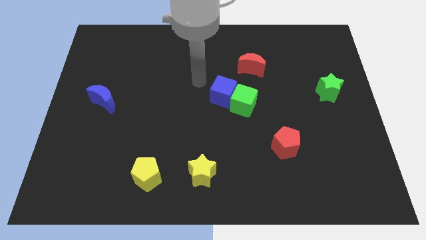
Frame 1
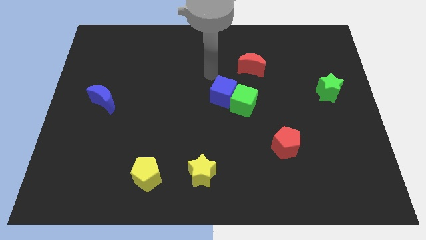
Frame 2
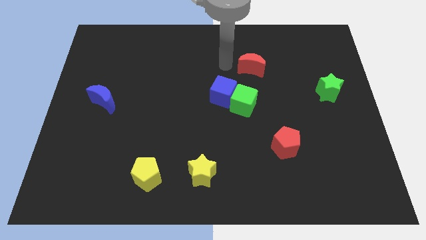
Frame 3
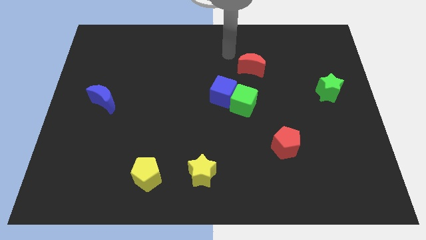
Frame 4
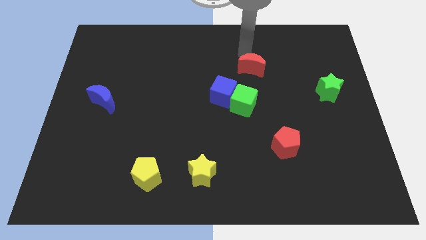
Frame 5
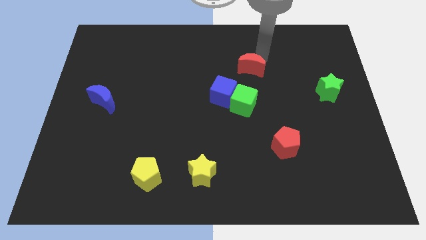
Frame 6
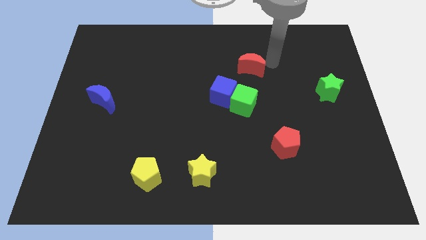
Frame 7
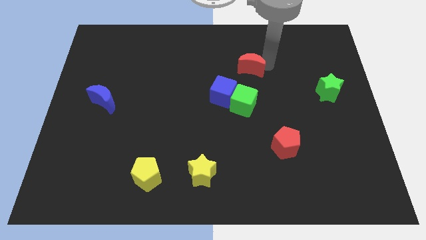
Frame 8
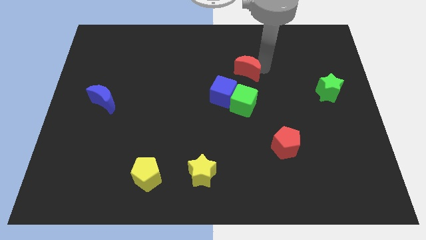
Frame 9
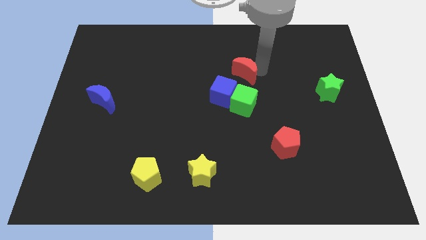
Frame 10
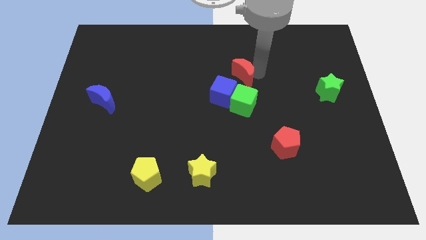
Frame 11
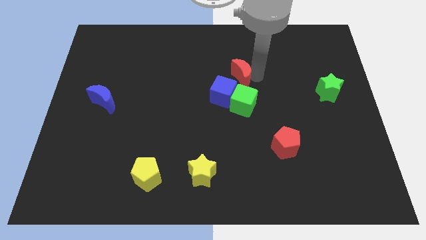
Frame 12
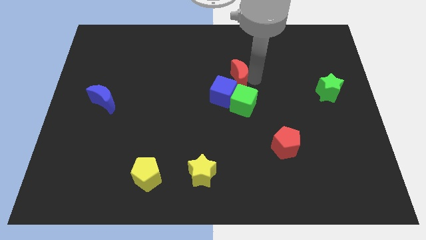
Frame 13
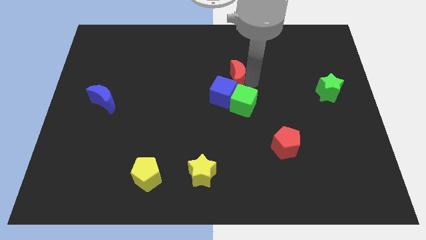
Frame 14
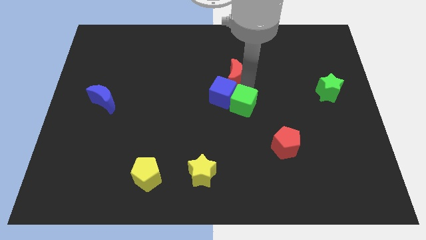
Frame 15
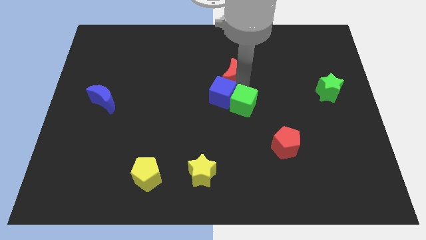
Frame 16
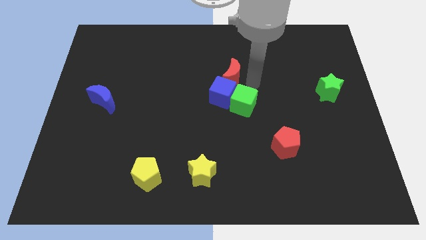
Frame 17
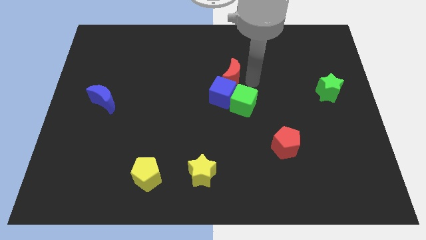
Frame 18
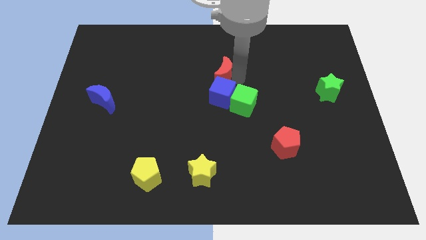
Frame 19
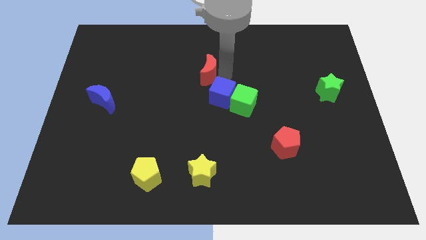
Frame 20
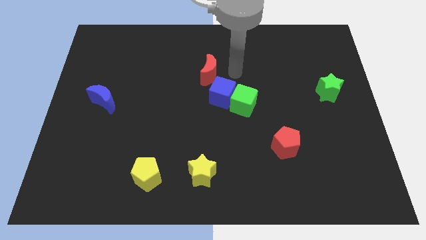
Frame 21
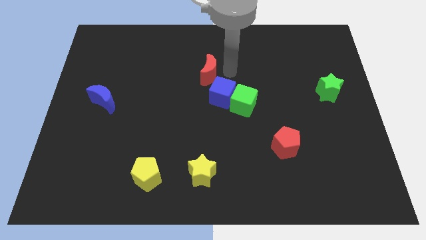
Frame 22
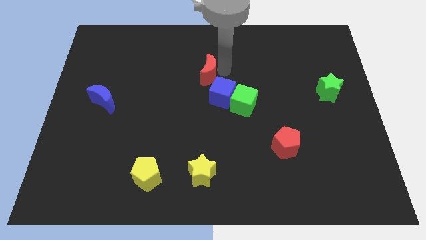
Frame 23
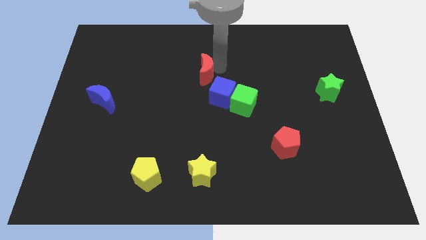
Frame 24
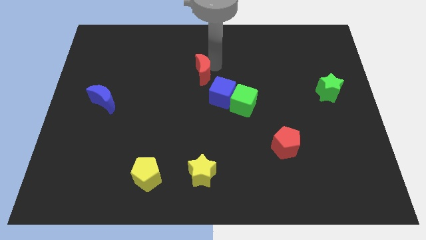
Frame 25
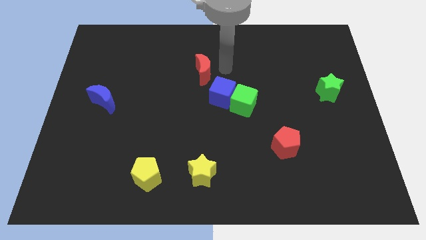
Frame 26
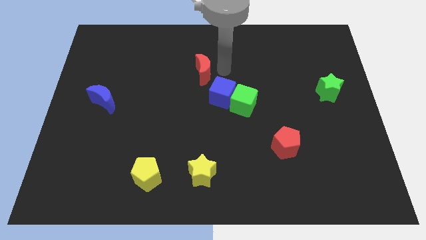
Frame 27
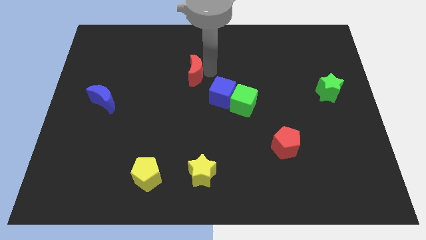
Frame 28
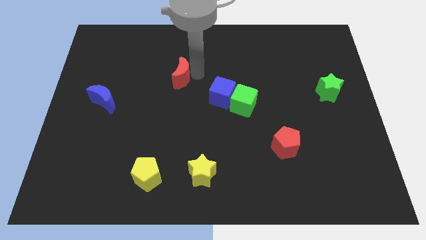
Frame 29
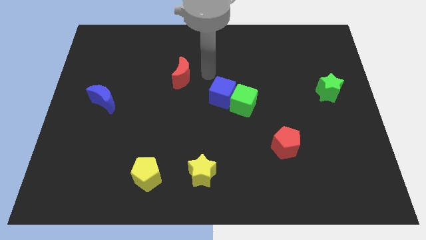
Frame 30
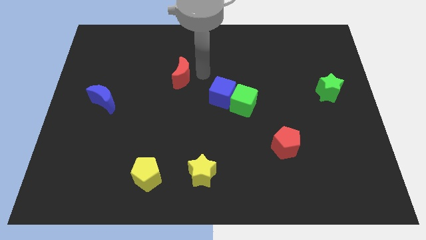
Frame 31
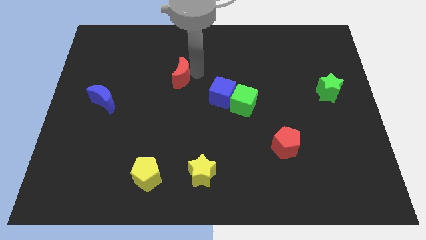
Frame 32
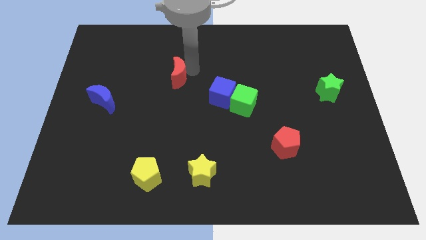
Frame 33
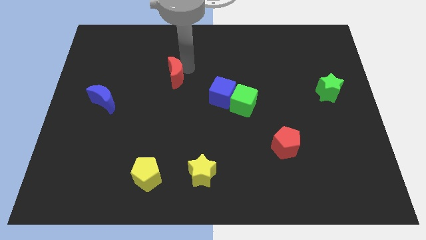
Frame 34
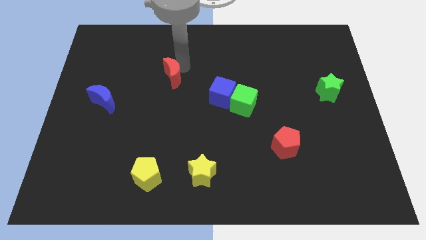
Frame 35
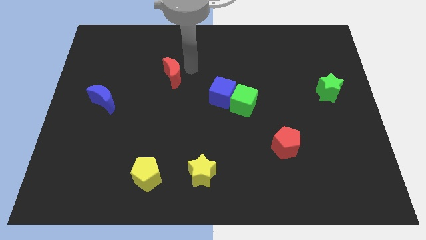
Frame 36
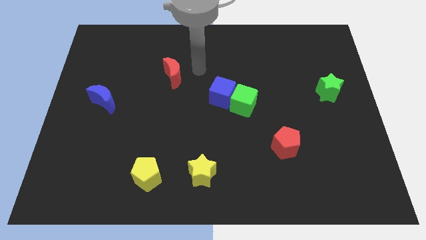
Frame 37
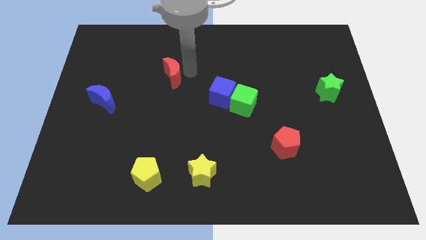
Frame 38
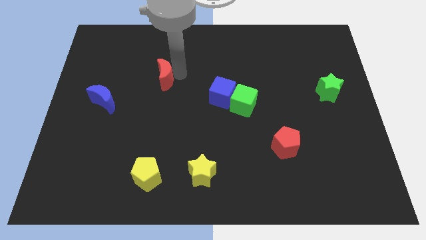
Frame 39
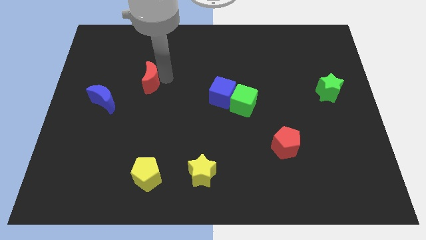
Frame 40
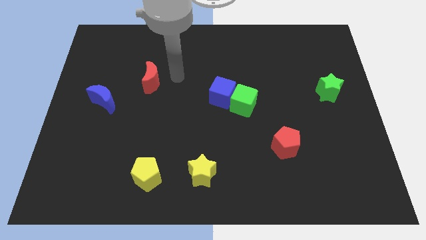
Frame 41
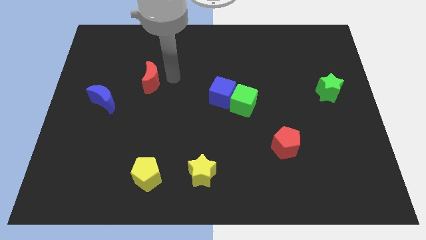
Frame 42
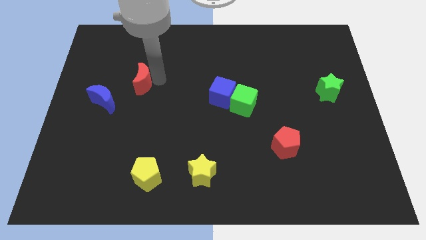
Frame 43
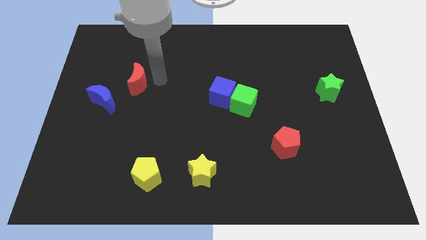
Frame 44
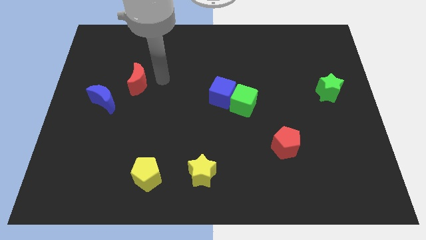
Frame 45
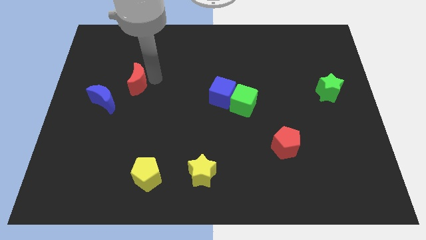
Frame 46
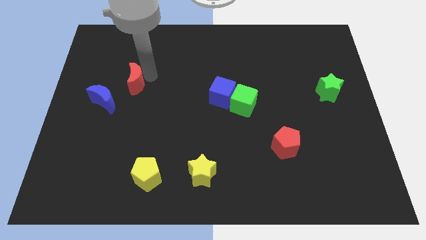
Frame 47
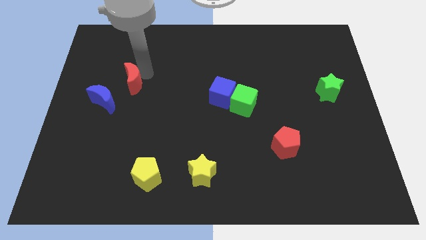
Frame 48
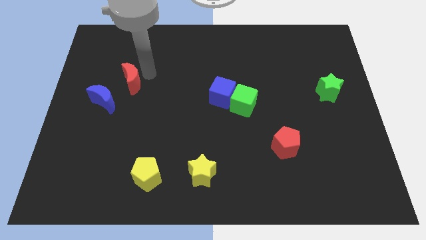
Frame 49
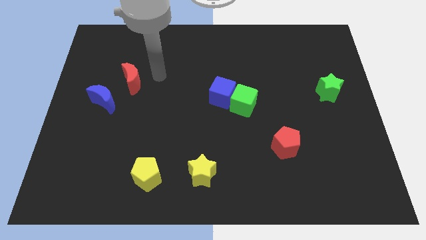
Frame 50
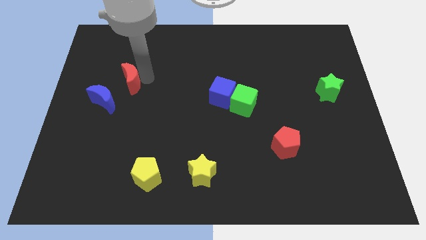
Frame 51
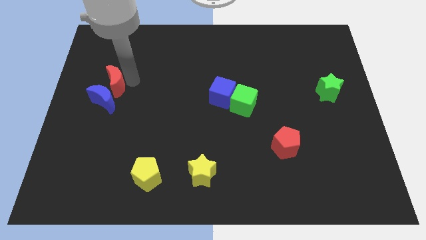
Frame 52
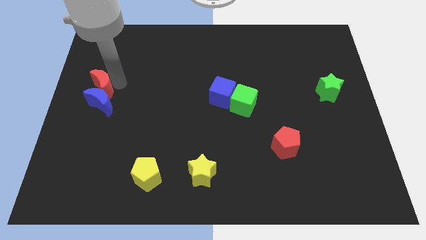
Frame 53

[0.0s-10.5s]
push the red moon to the center left

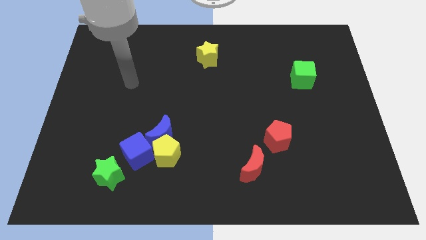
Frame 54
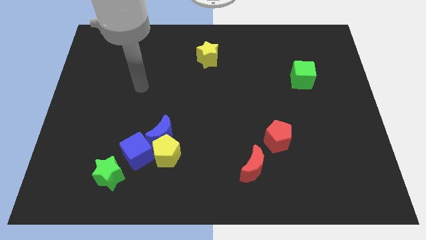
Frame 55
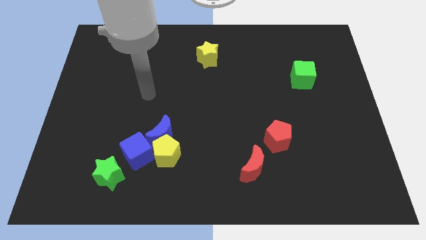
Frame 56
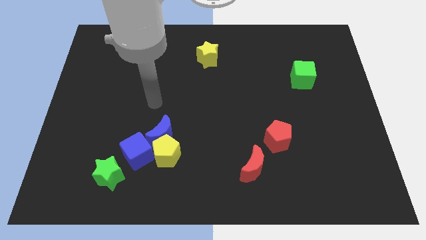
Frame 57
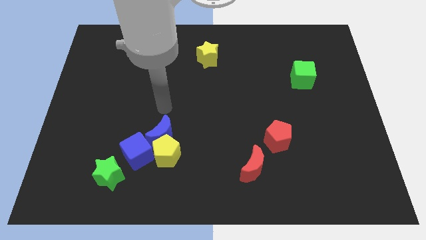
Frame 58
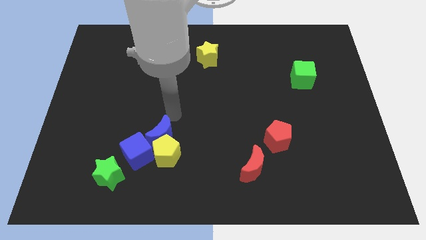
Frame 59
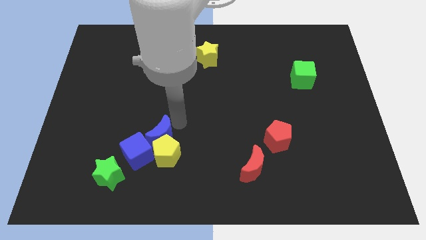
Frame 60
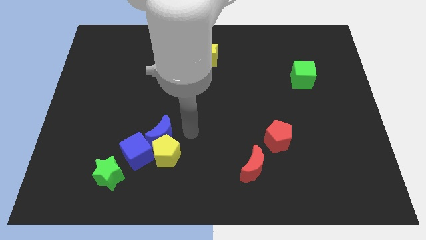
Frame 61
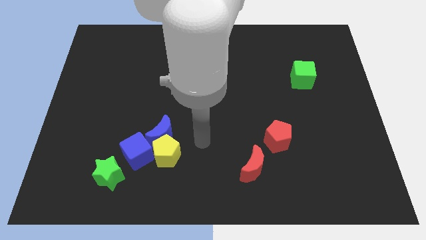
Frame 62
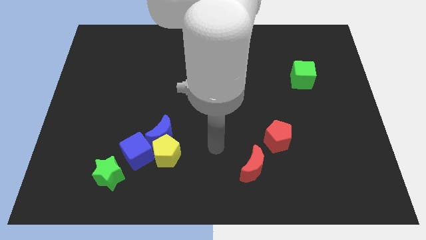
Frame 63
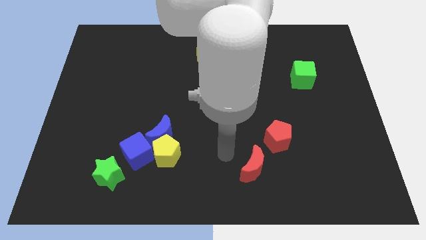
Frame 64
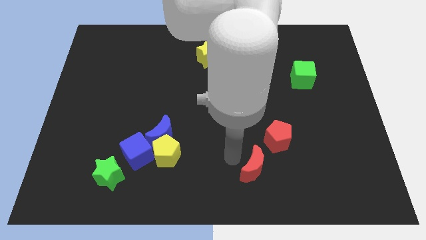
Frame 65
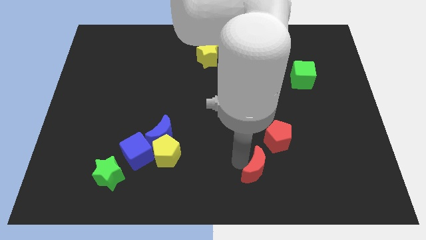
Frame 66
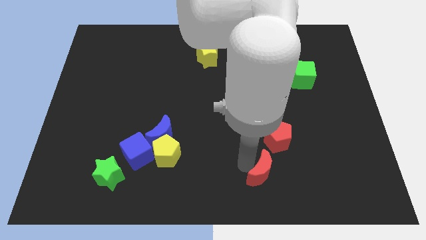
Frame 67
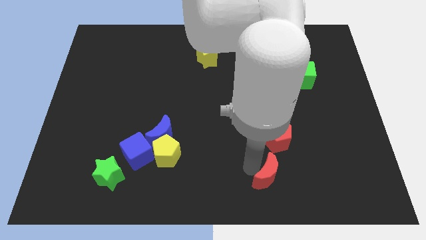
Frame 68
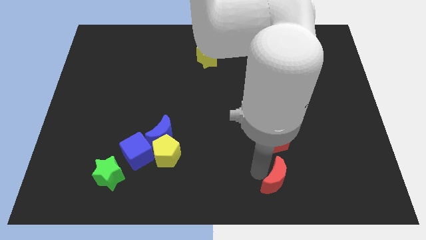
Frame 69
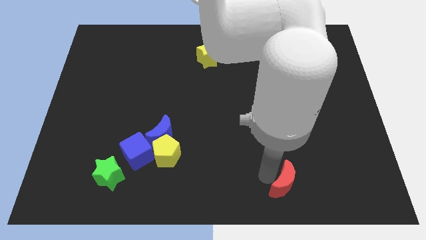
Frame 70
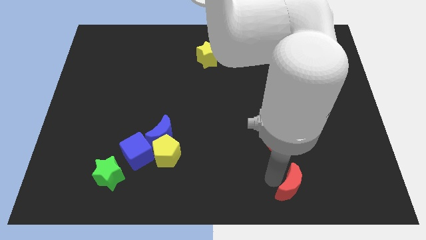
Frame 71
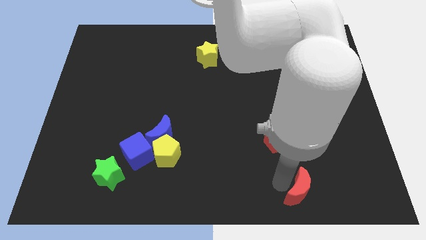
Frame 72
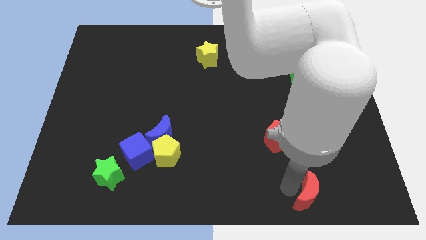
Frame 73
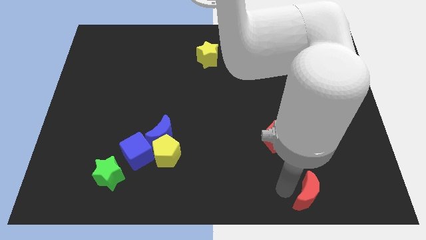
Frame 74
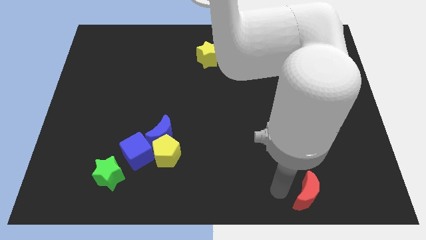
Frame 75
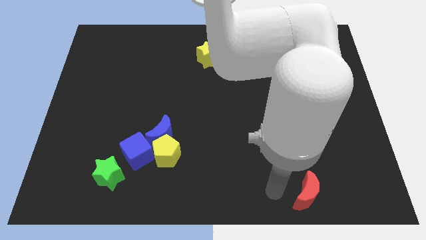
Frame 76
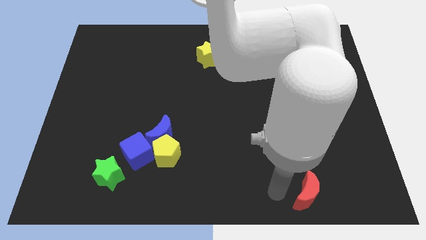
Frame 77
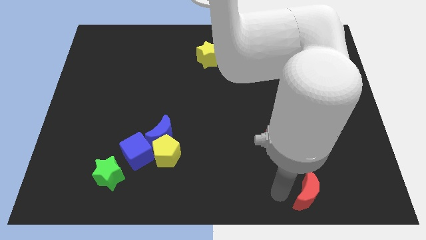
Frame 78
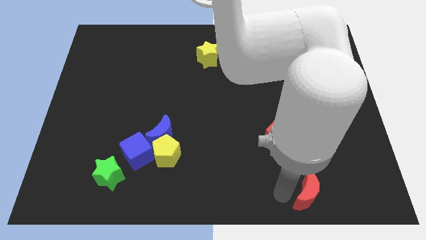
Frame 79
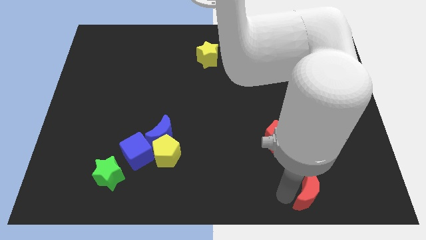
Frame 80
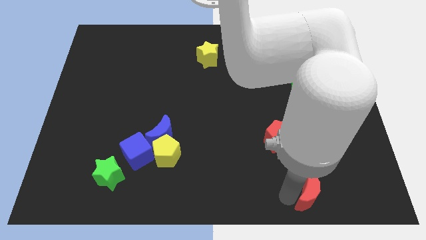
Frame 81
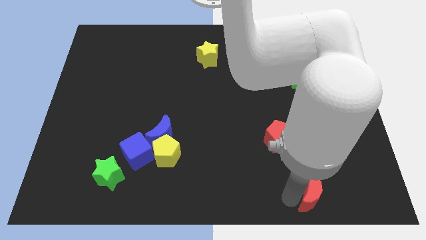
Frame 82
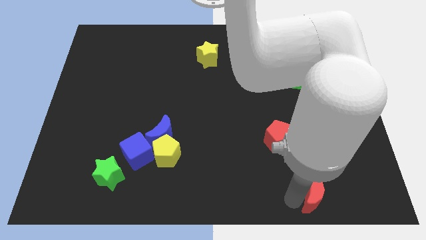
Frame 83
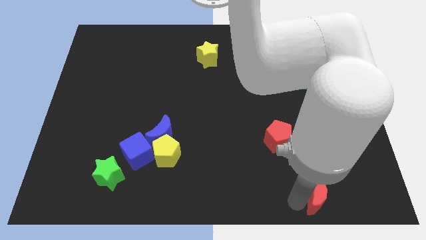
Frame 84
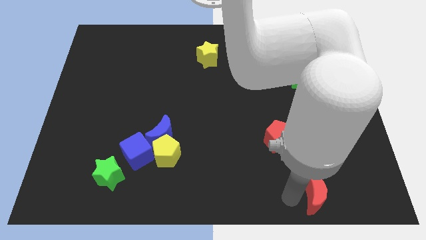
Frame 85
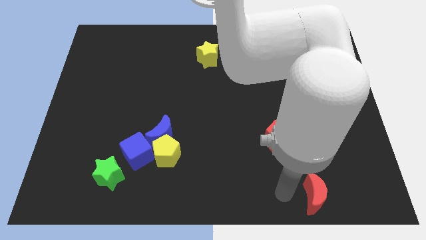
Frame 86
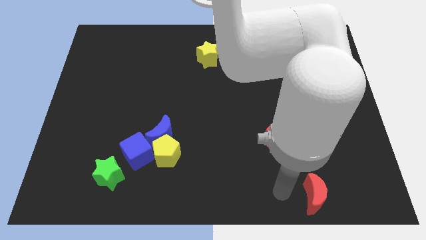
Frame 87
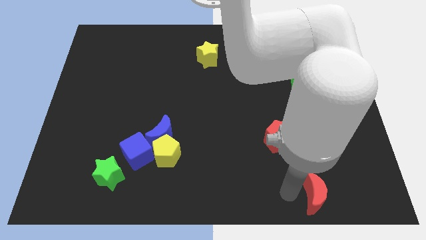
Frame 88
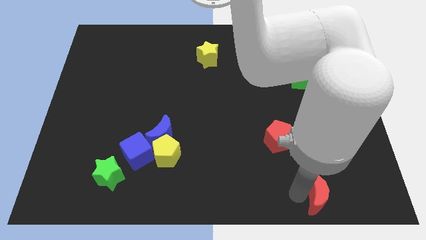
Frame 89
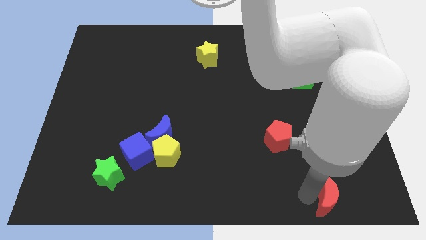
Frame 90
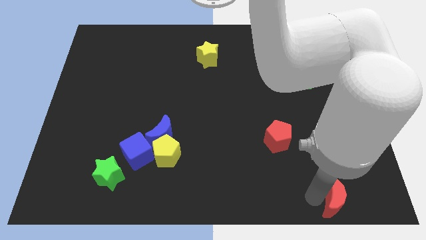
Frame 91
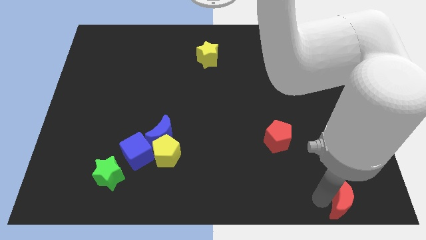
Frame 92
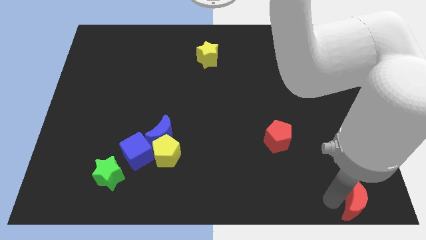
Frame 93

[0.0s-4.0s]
move the red moon to the bottom right corner
